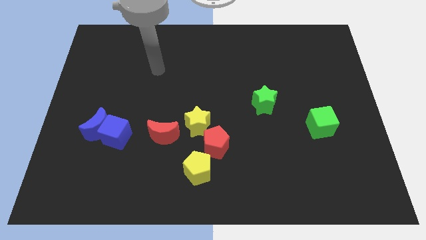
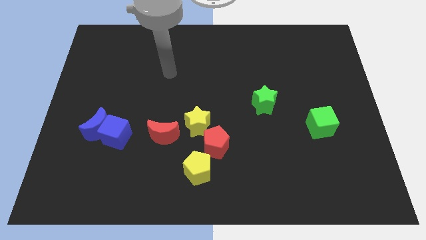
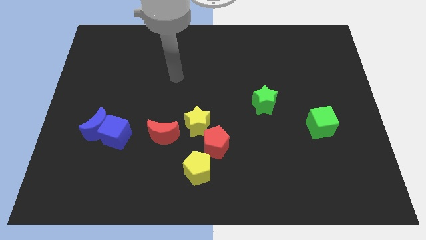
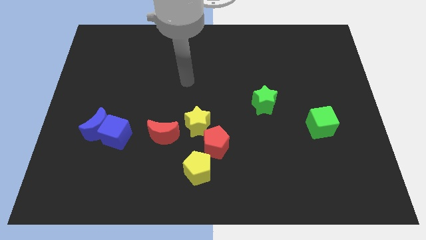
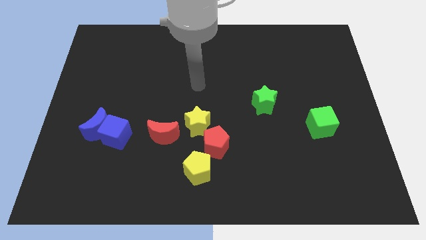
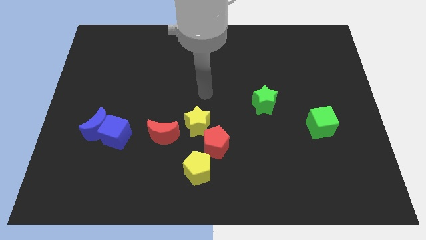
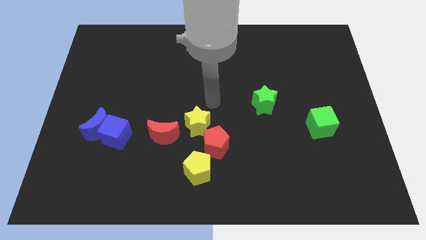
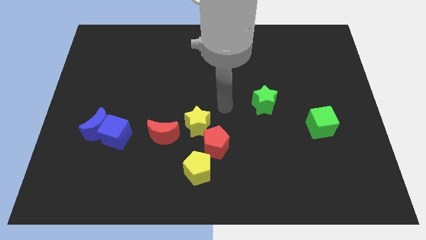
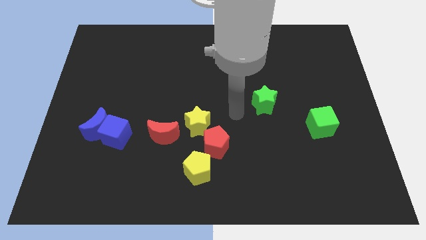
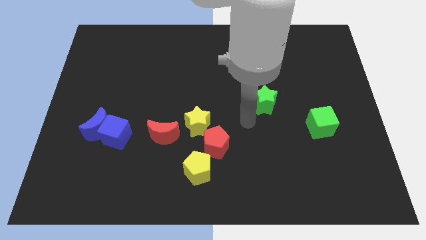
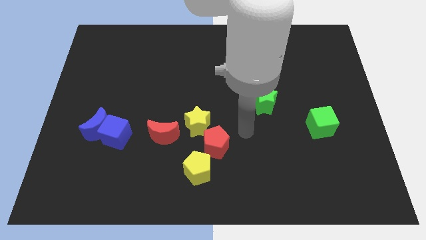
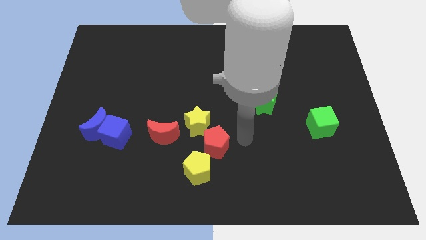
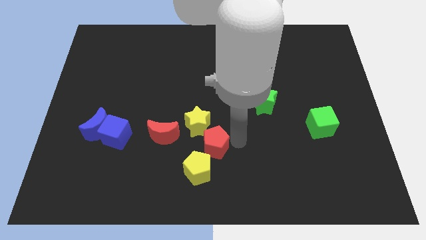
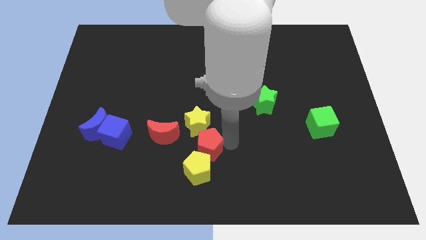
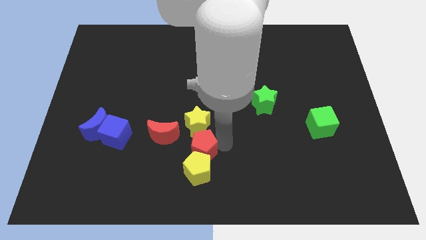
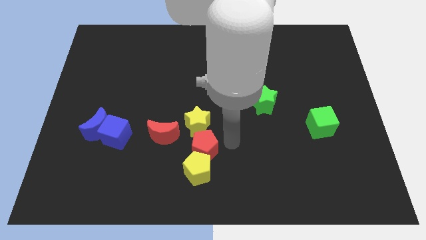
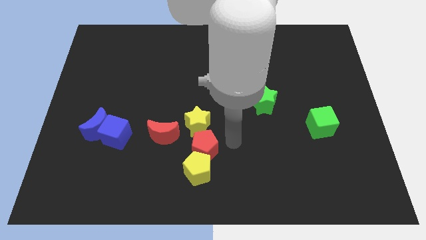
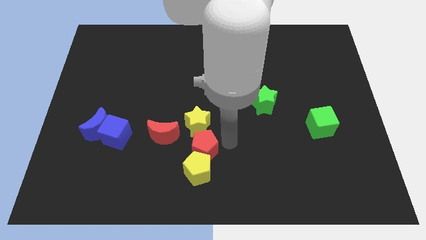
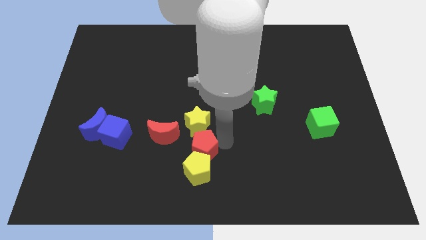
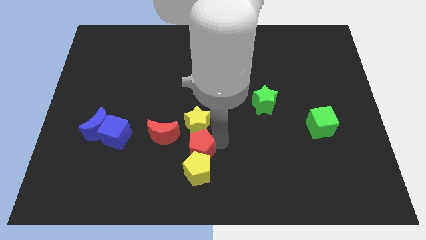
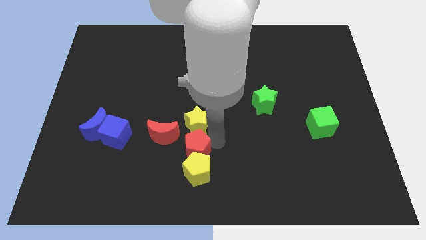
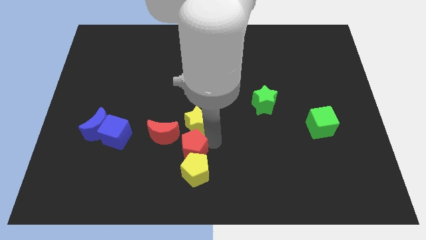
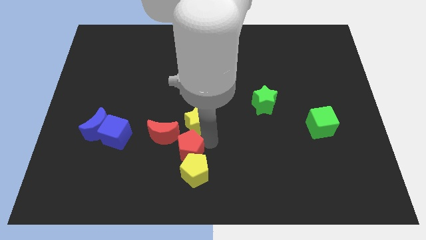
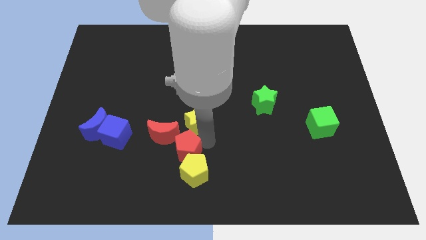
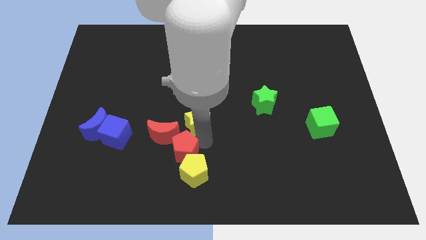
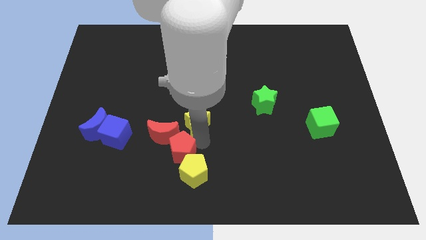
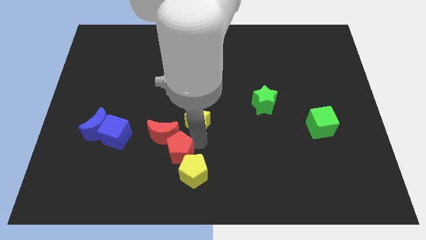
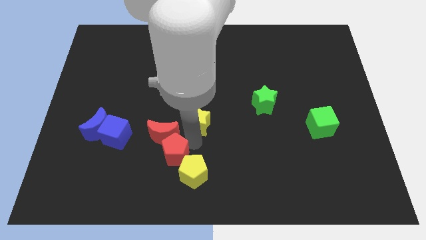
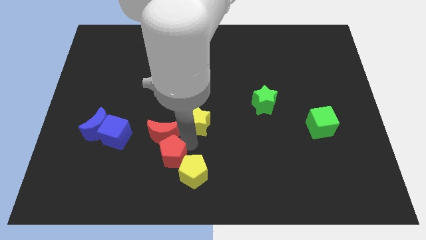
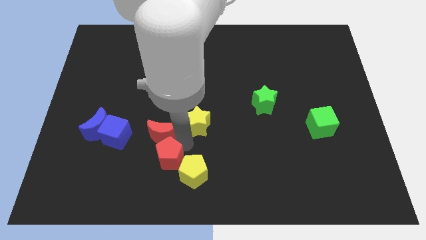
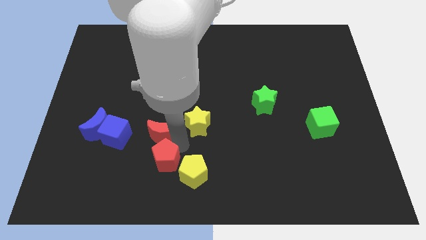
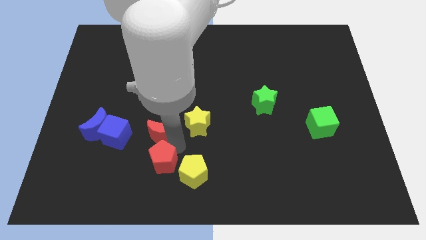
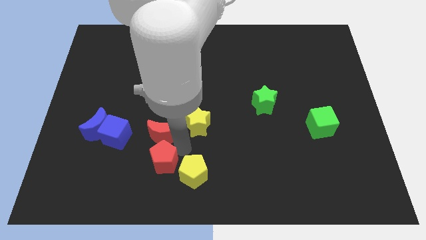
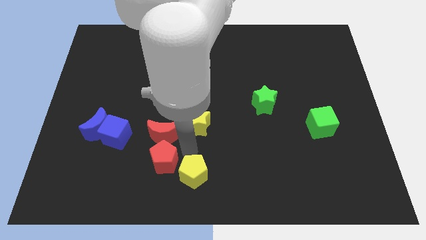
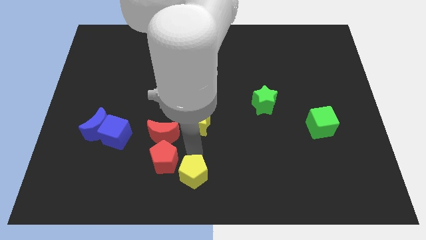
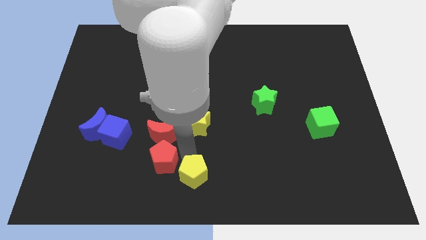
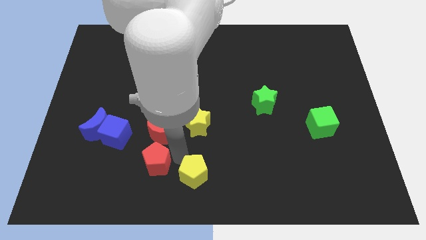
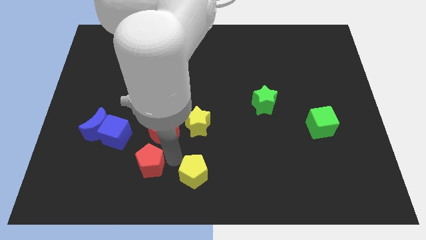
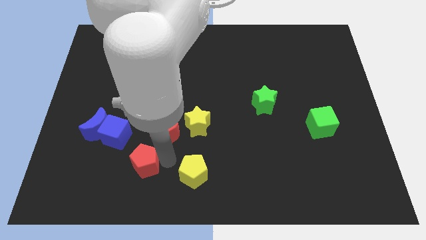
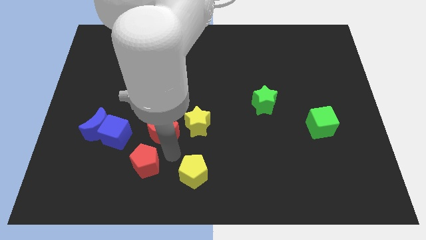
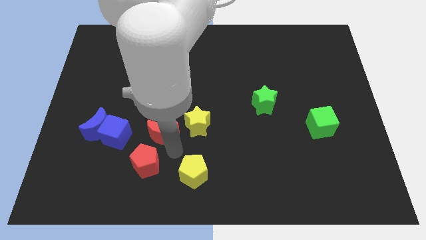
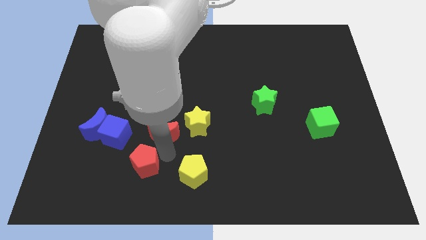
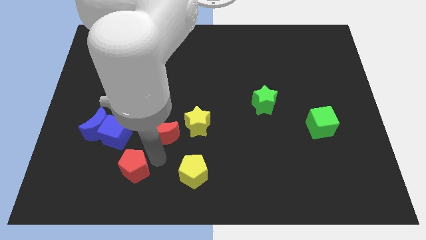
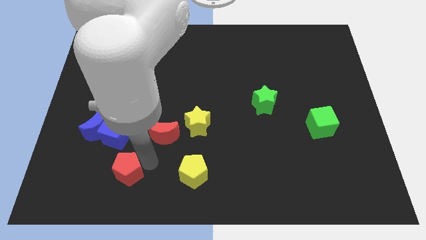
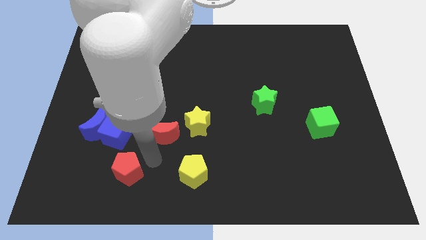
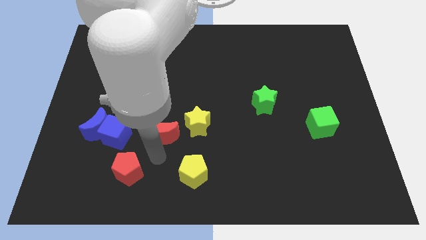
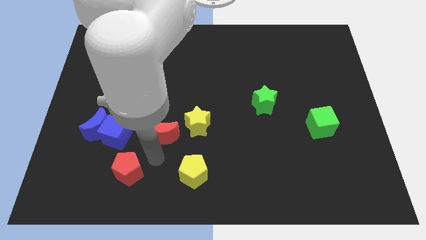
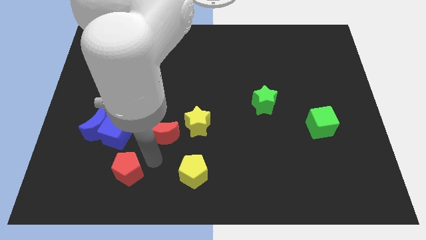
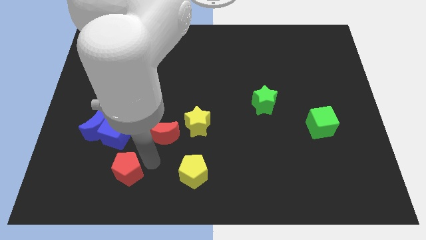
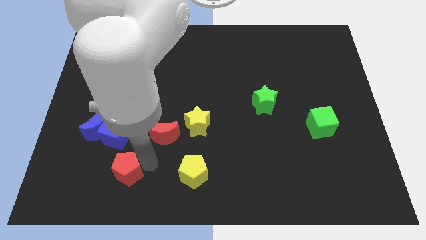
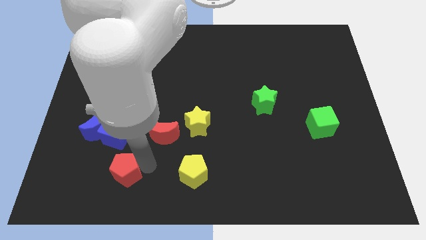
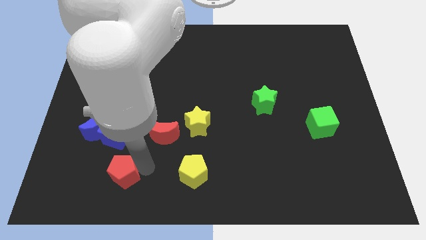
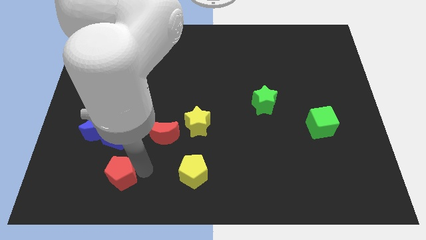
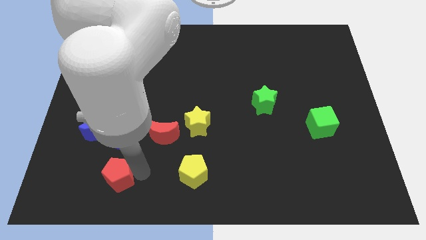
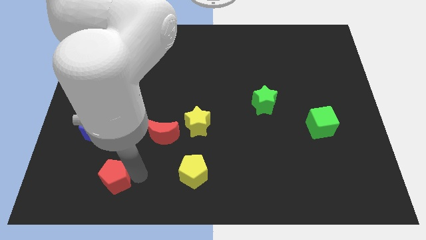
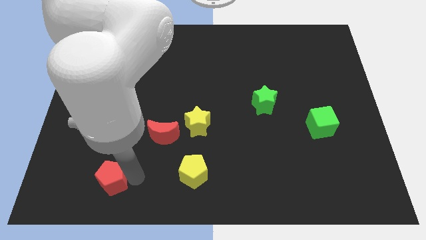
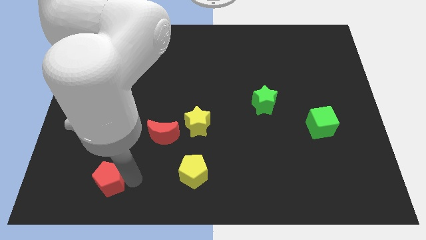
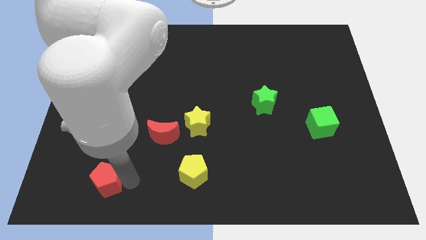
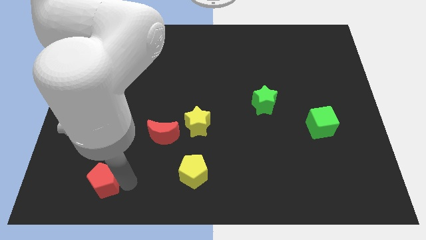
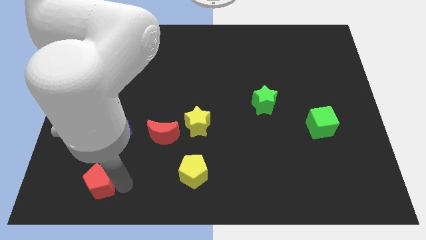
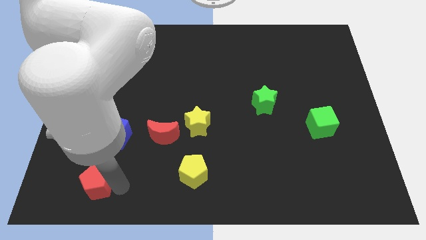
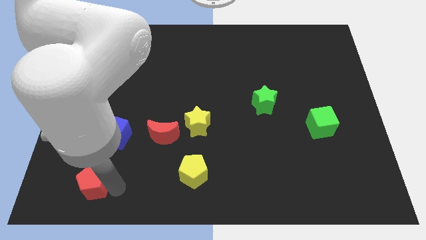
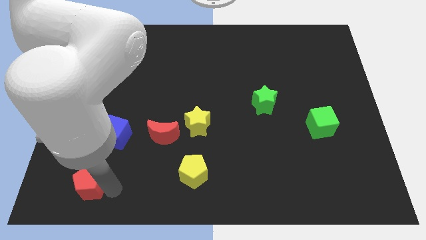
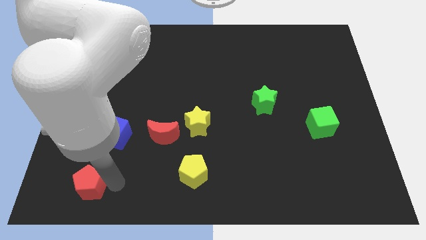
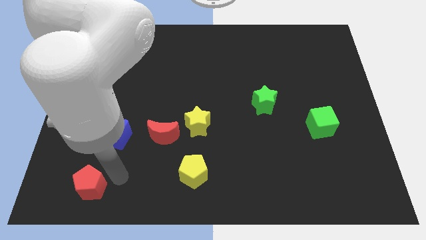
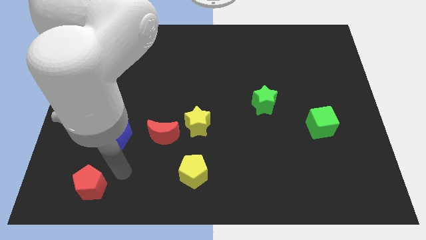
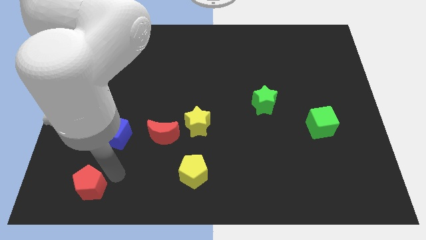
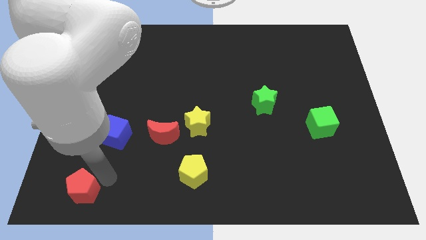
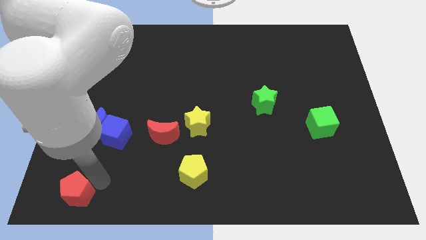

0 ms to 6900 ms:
move the red pentagon to the lower left corner
